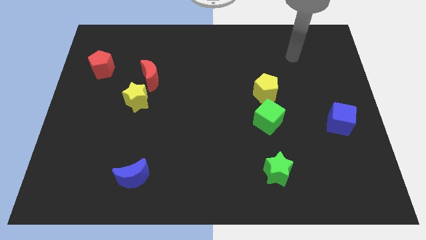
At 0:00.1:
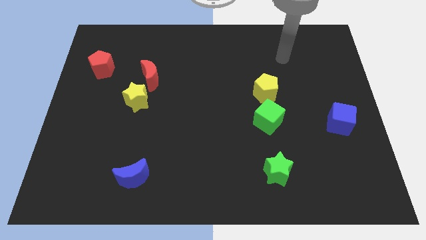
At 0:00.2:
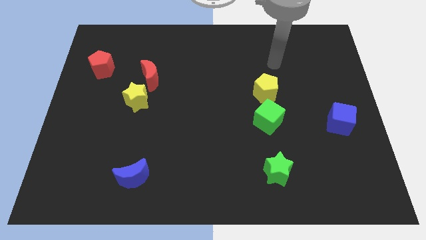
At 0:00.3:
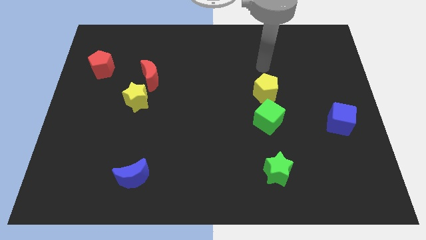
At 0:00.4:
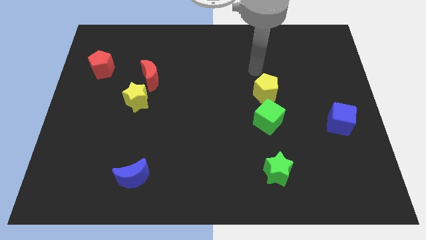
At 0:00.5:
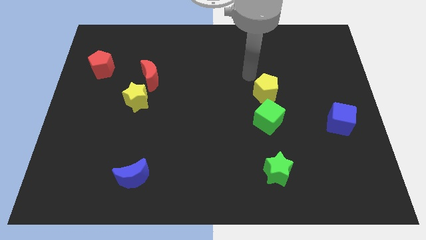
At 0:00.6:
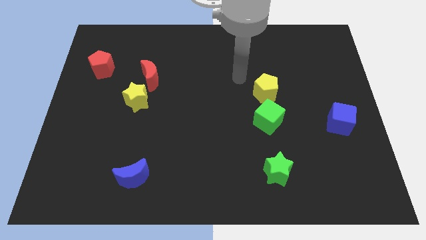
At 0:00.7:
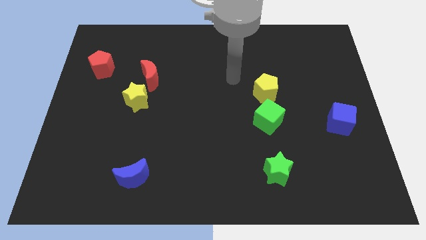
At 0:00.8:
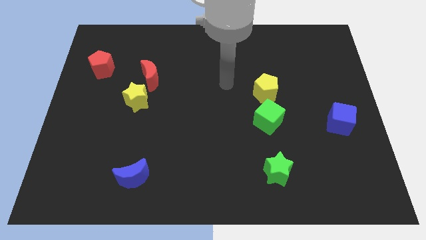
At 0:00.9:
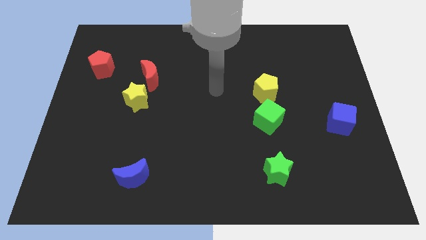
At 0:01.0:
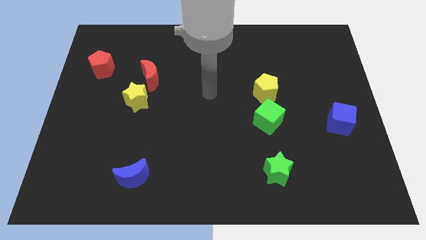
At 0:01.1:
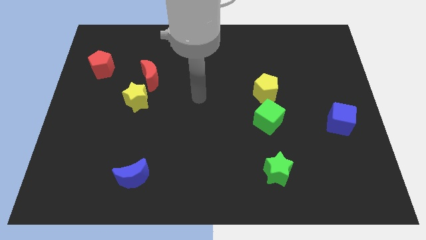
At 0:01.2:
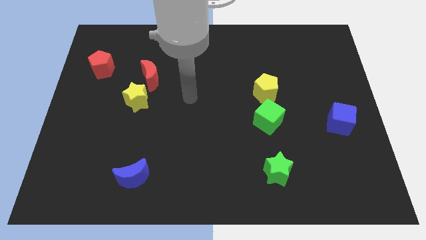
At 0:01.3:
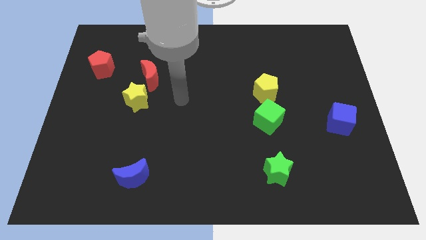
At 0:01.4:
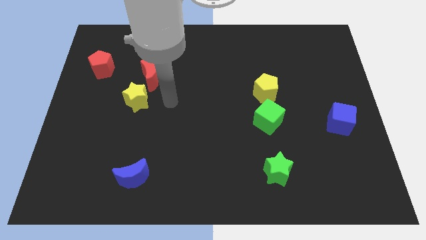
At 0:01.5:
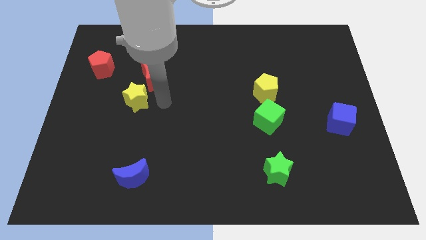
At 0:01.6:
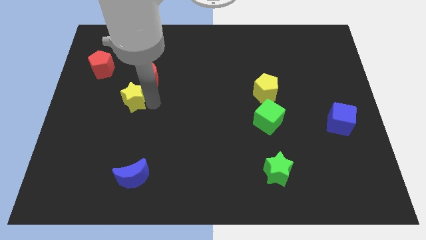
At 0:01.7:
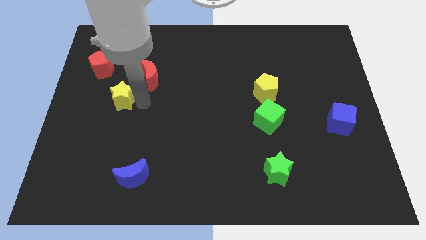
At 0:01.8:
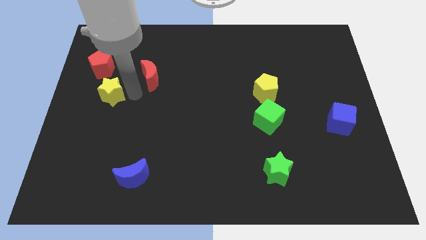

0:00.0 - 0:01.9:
separate the red moon from the yellow star

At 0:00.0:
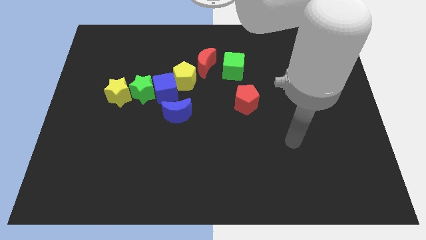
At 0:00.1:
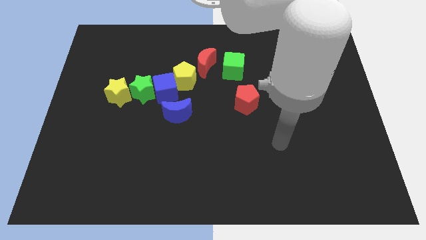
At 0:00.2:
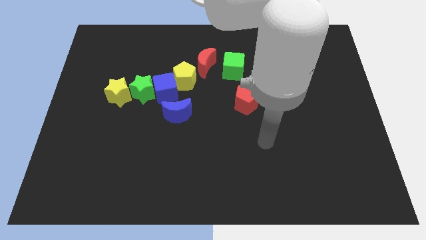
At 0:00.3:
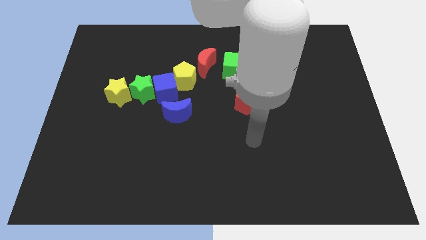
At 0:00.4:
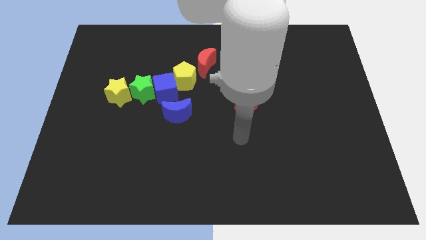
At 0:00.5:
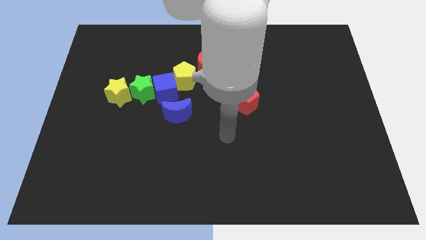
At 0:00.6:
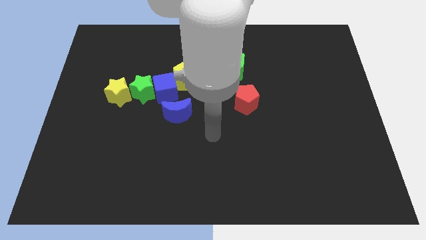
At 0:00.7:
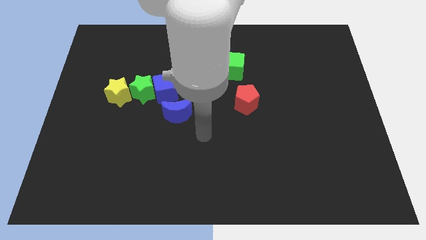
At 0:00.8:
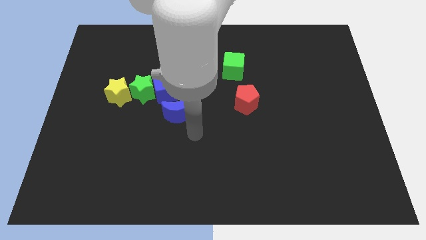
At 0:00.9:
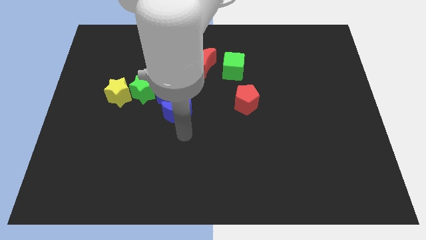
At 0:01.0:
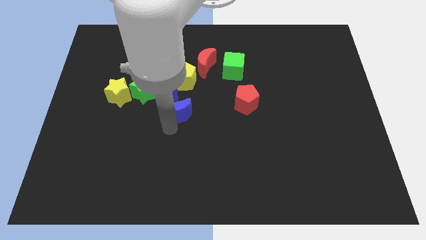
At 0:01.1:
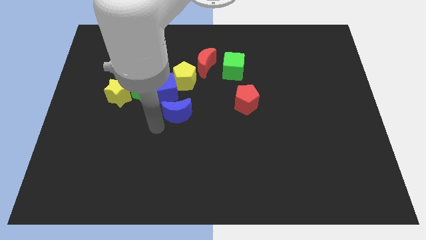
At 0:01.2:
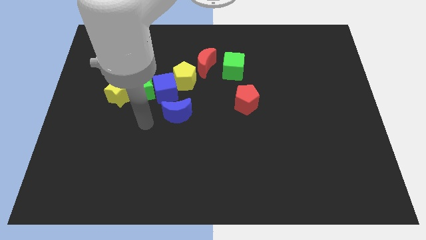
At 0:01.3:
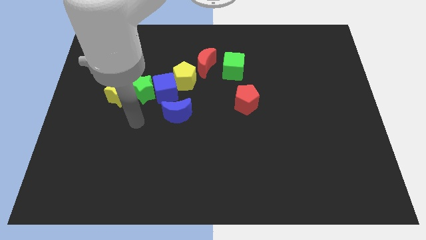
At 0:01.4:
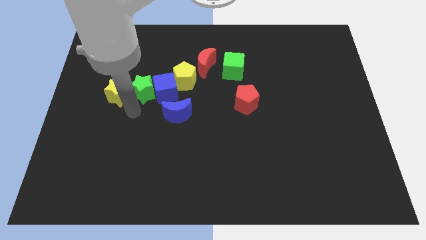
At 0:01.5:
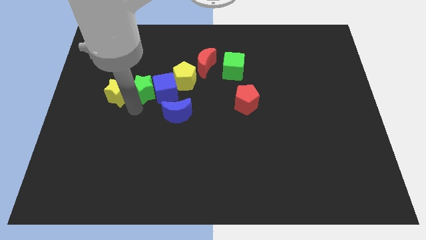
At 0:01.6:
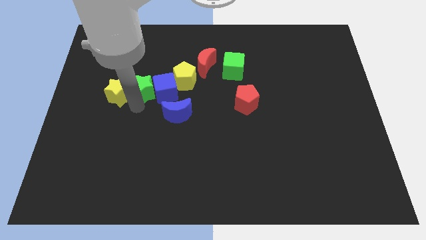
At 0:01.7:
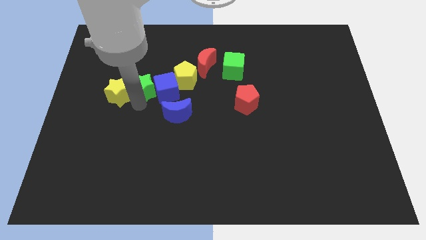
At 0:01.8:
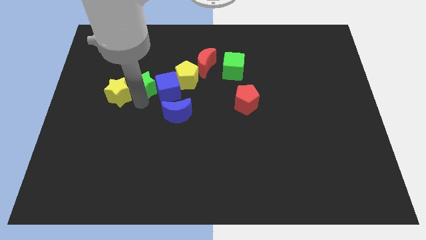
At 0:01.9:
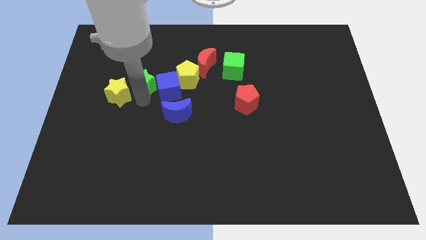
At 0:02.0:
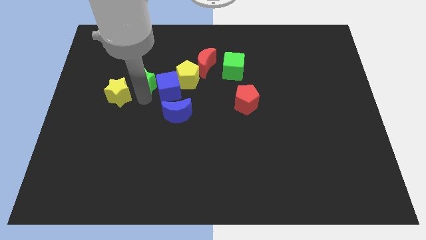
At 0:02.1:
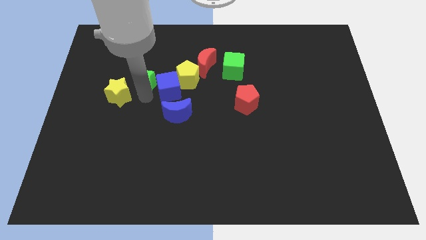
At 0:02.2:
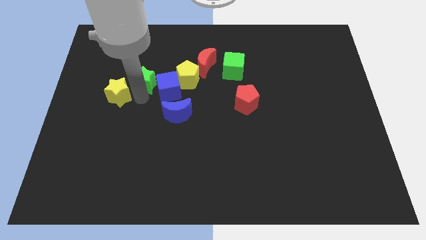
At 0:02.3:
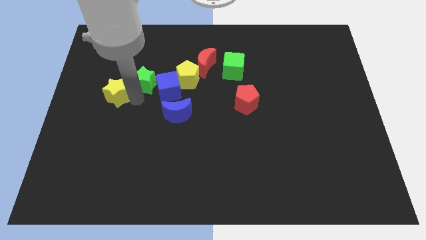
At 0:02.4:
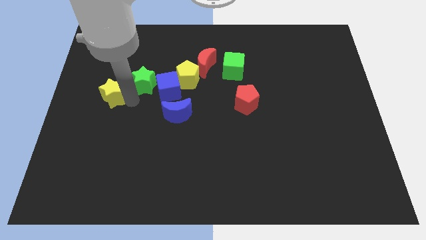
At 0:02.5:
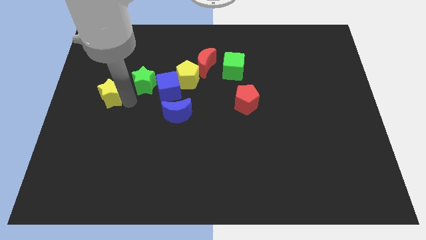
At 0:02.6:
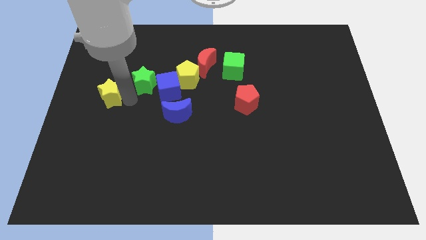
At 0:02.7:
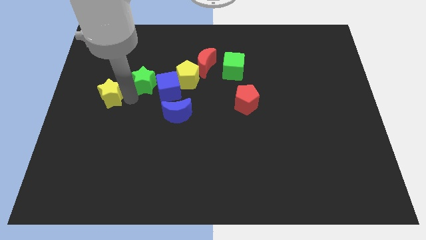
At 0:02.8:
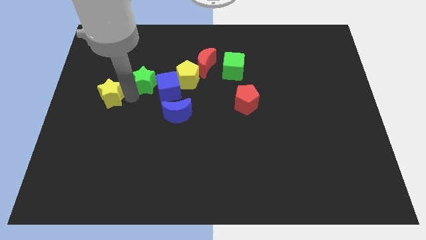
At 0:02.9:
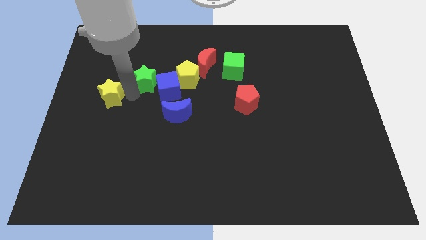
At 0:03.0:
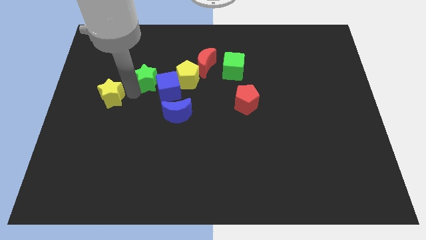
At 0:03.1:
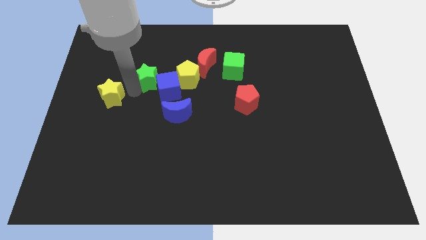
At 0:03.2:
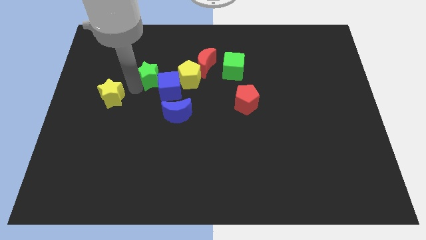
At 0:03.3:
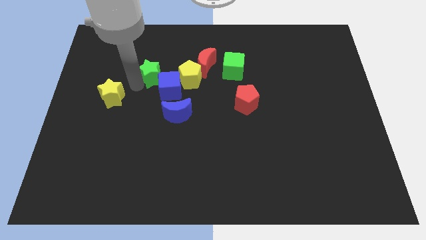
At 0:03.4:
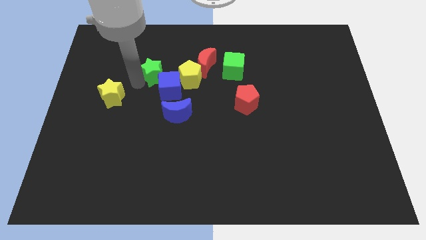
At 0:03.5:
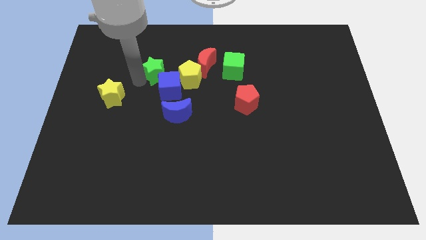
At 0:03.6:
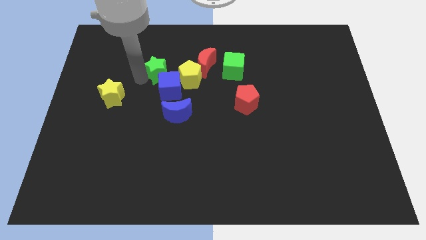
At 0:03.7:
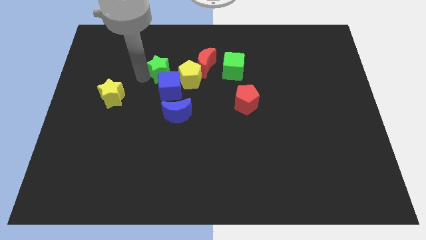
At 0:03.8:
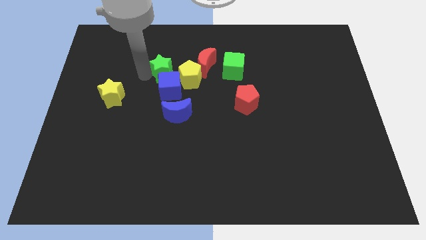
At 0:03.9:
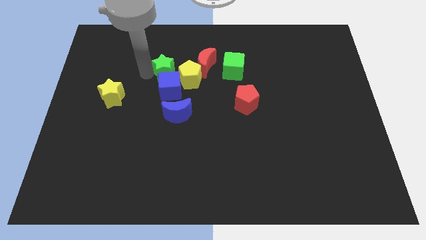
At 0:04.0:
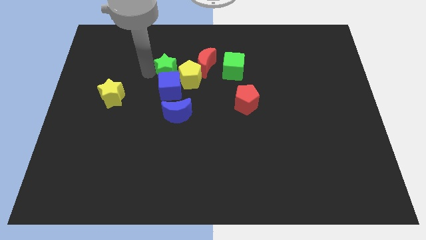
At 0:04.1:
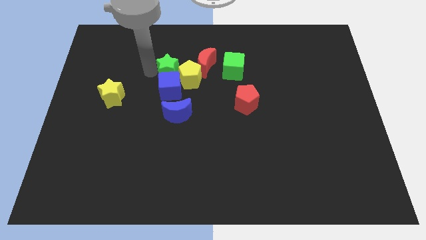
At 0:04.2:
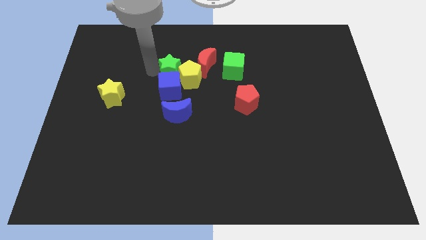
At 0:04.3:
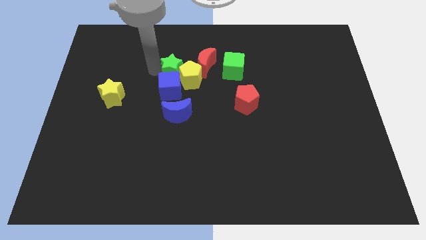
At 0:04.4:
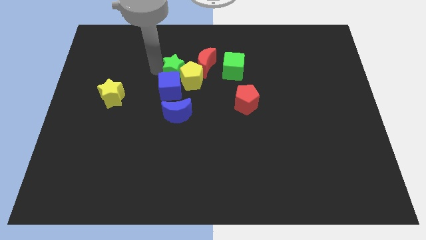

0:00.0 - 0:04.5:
move the green star away from the blue cube and yellow star

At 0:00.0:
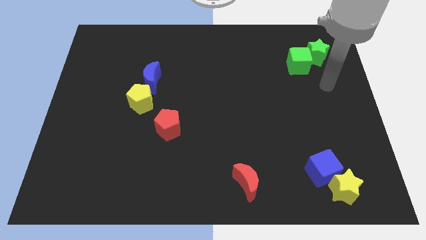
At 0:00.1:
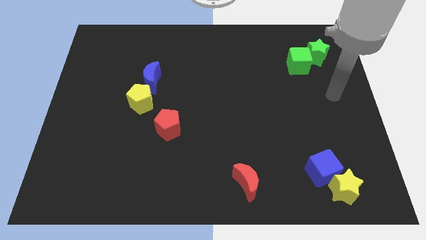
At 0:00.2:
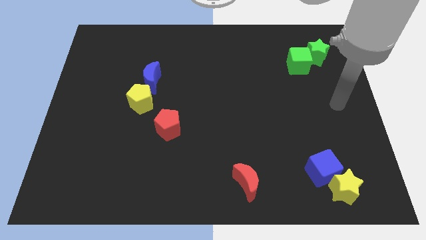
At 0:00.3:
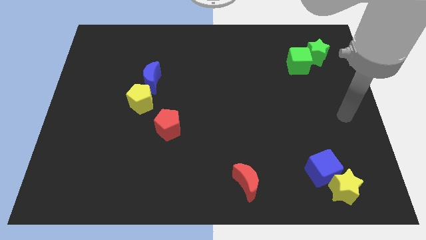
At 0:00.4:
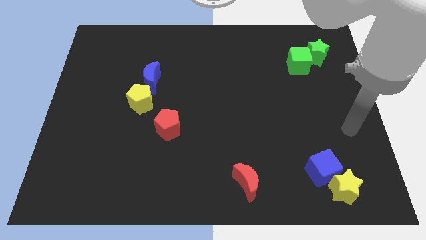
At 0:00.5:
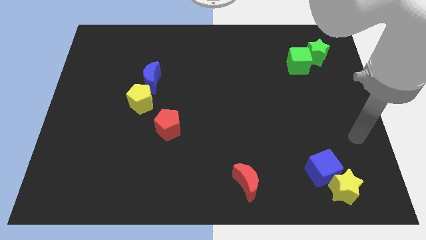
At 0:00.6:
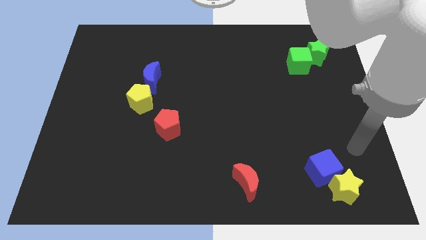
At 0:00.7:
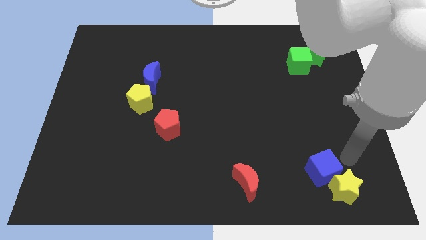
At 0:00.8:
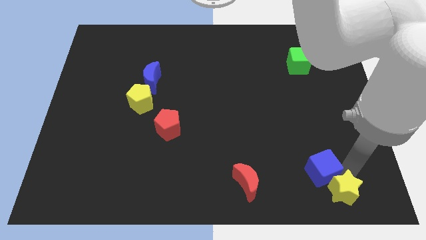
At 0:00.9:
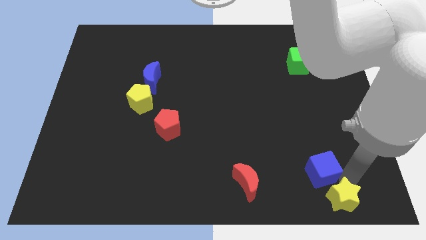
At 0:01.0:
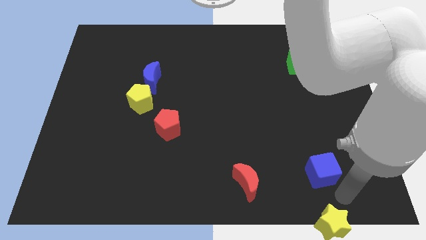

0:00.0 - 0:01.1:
move the blue cube away from the yellow star

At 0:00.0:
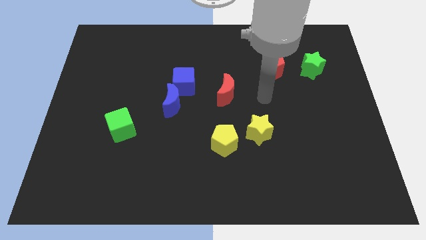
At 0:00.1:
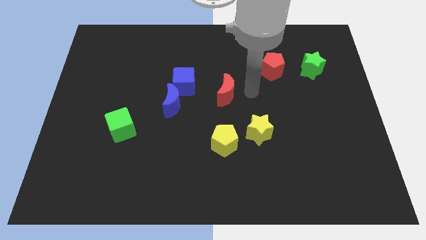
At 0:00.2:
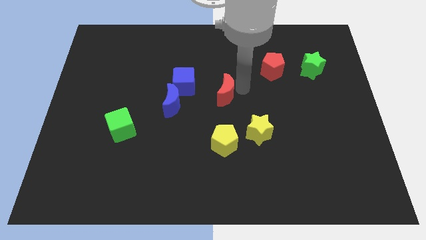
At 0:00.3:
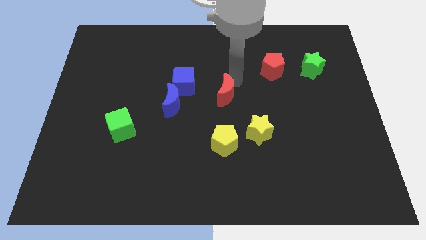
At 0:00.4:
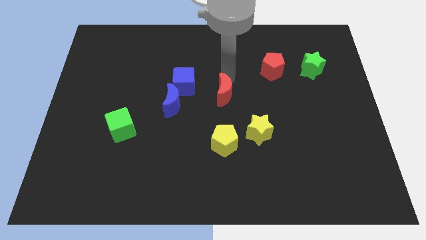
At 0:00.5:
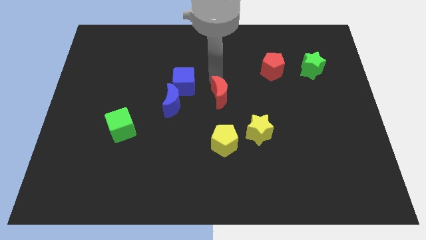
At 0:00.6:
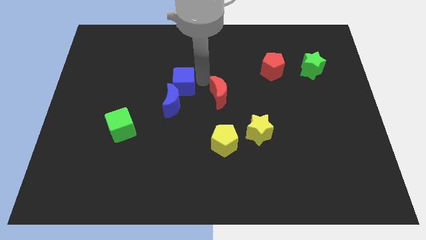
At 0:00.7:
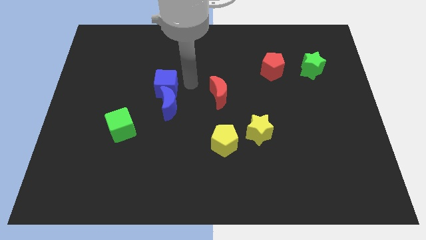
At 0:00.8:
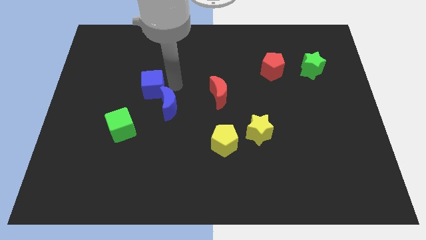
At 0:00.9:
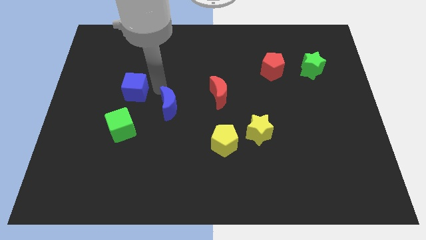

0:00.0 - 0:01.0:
separate the blue moon from the blue cube

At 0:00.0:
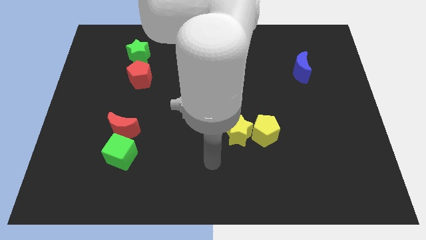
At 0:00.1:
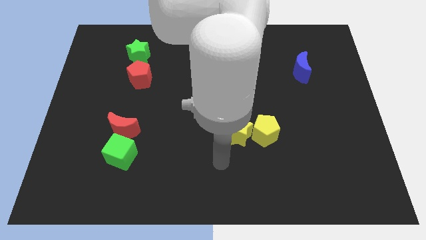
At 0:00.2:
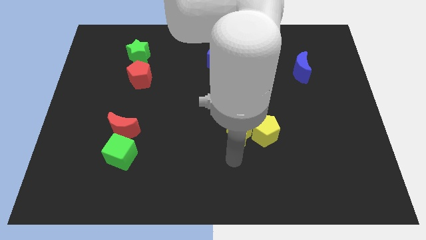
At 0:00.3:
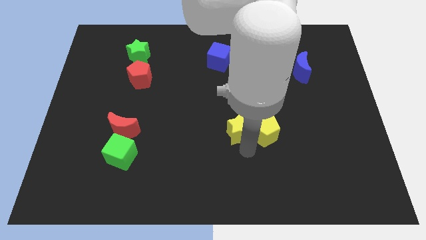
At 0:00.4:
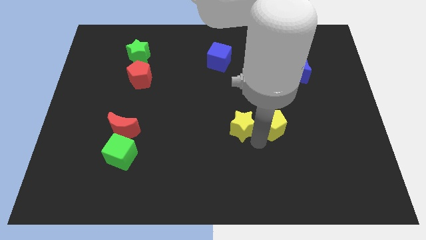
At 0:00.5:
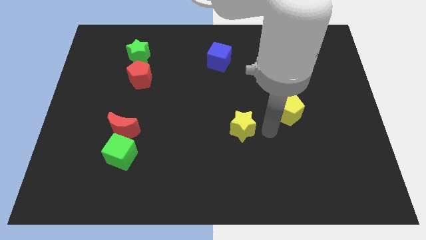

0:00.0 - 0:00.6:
pull the yellow star apart from the yellow pentagon

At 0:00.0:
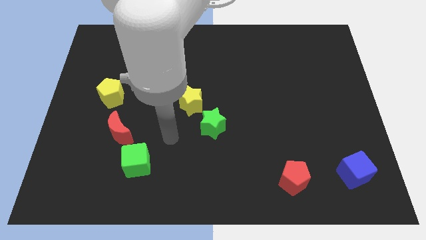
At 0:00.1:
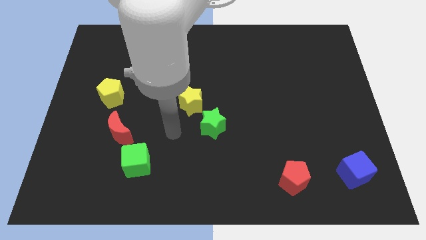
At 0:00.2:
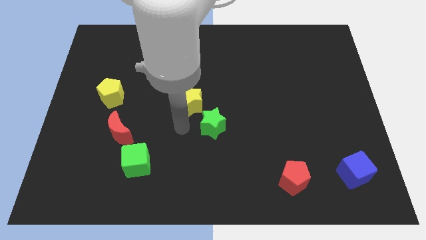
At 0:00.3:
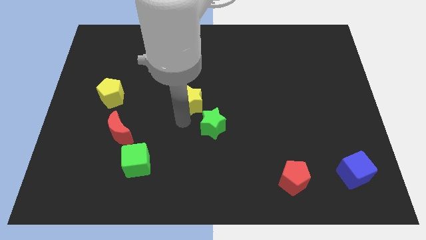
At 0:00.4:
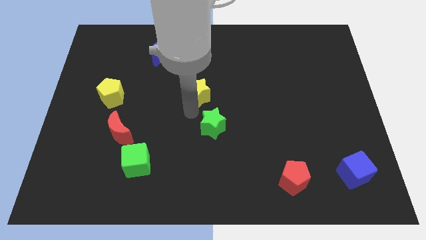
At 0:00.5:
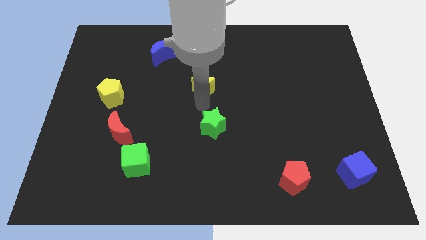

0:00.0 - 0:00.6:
move the green star away from the yellow star
